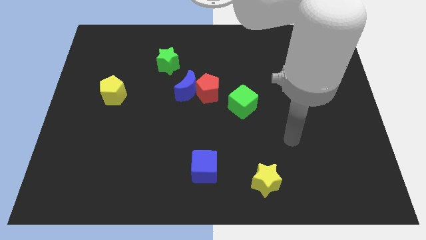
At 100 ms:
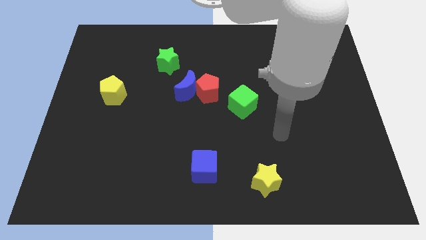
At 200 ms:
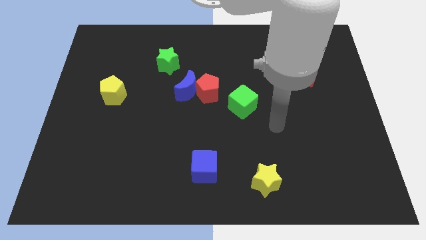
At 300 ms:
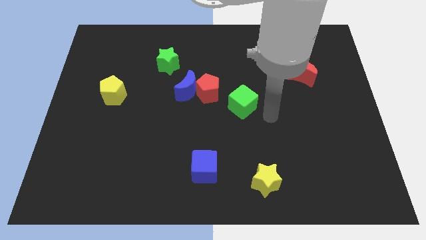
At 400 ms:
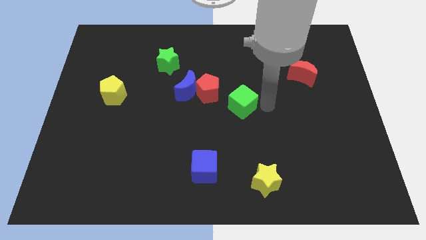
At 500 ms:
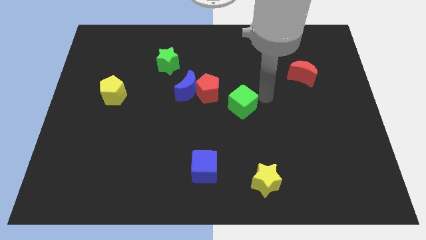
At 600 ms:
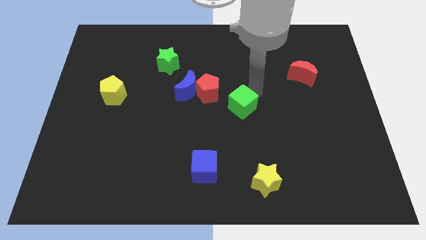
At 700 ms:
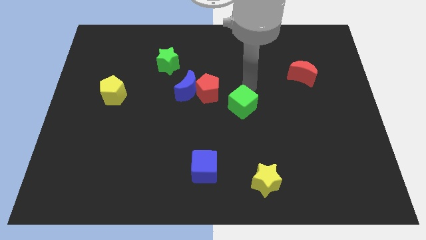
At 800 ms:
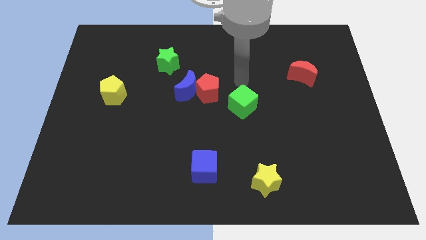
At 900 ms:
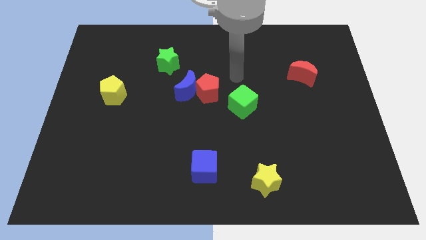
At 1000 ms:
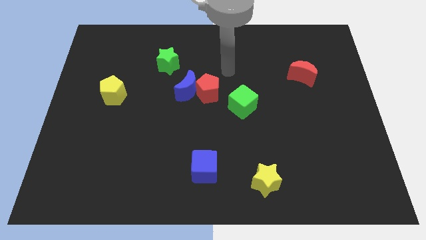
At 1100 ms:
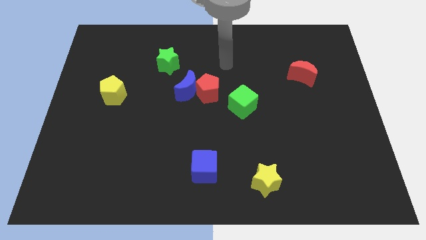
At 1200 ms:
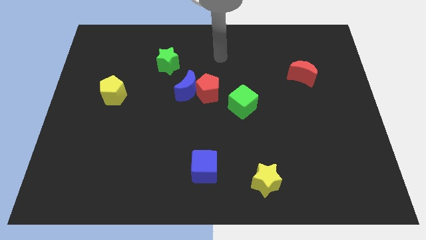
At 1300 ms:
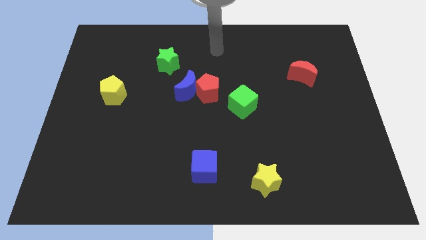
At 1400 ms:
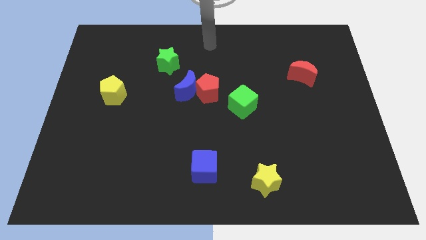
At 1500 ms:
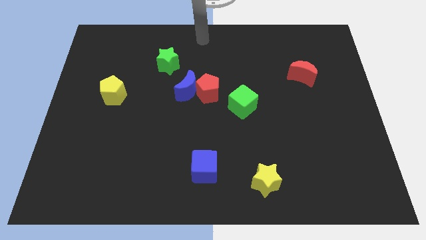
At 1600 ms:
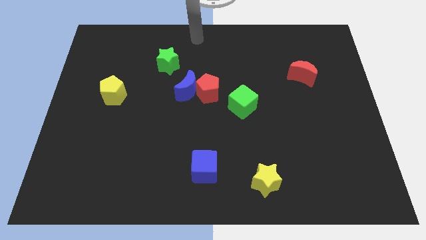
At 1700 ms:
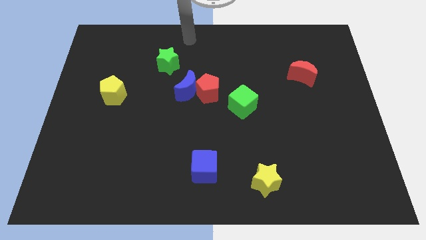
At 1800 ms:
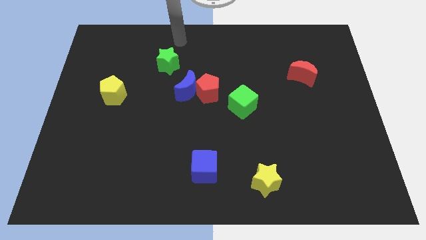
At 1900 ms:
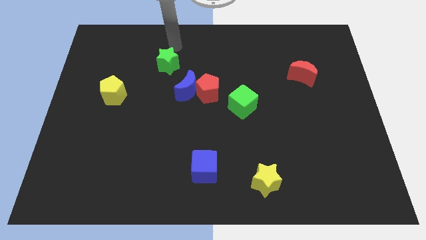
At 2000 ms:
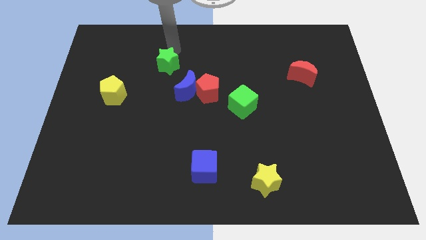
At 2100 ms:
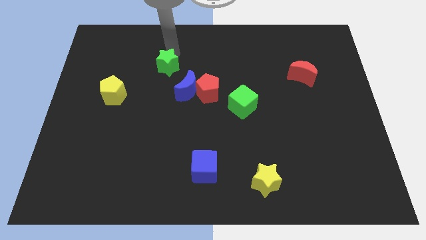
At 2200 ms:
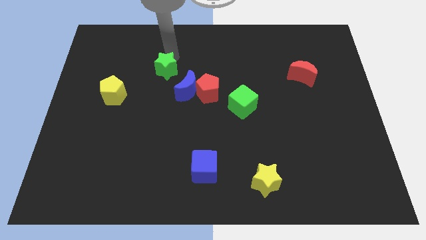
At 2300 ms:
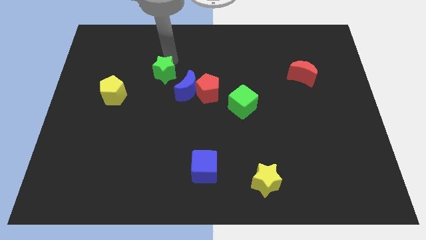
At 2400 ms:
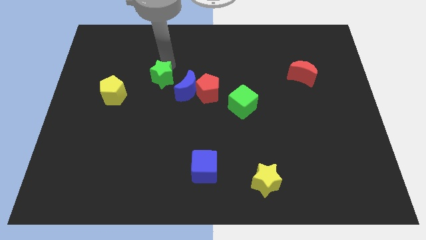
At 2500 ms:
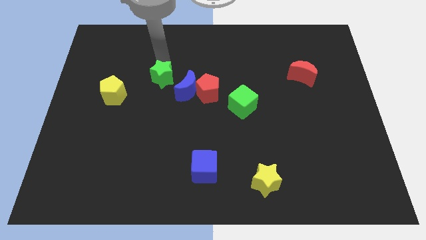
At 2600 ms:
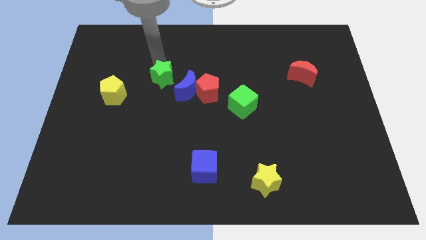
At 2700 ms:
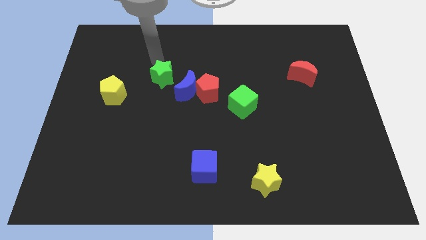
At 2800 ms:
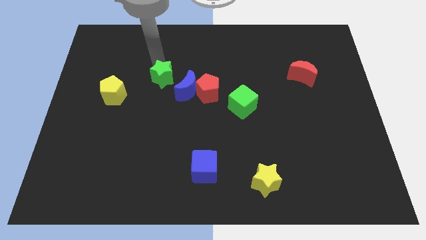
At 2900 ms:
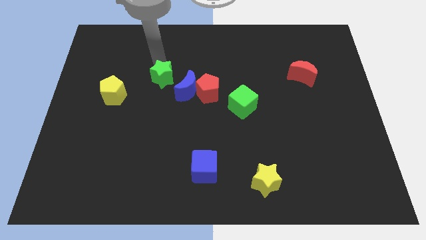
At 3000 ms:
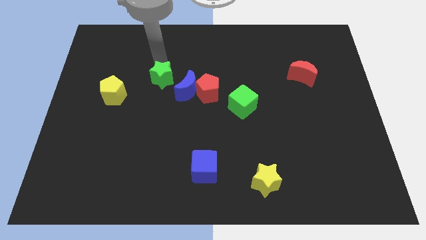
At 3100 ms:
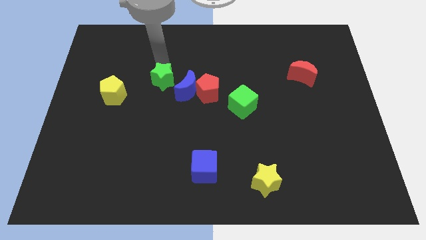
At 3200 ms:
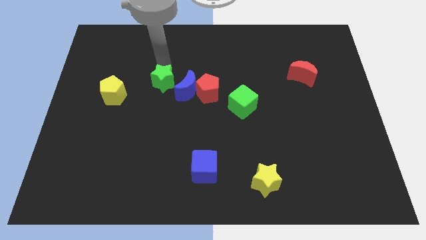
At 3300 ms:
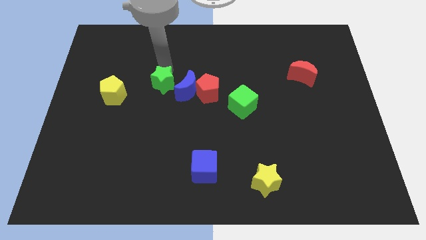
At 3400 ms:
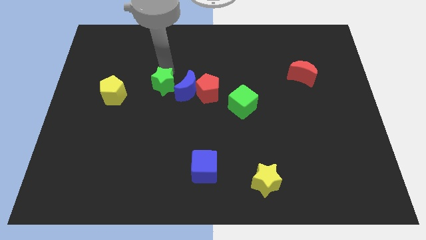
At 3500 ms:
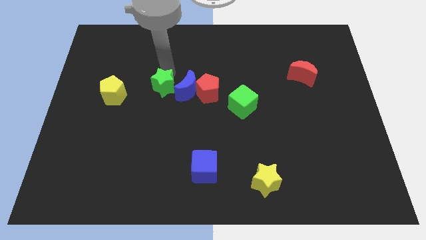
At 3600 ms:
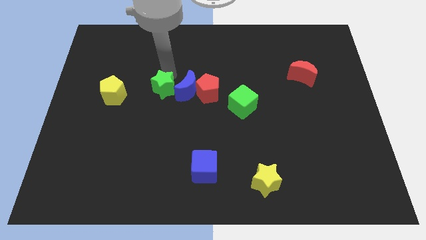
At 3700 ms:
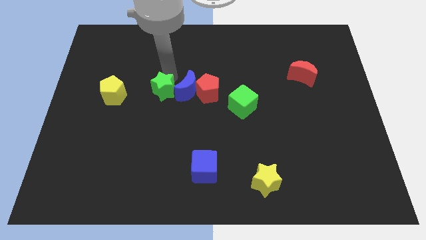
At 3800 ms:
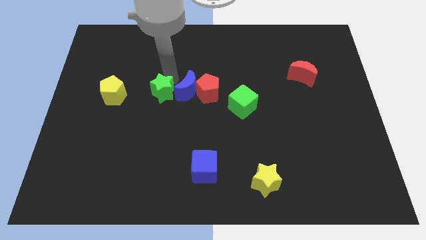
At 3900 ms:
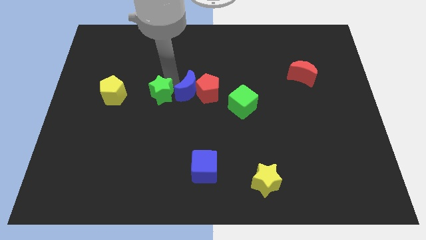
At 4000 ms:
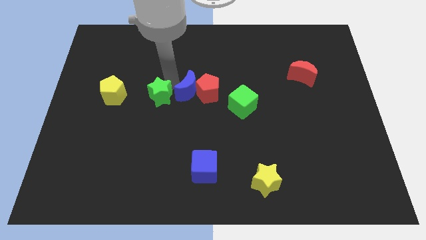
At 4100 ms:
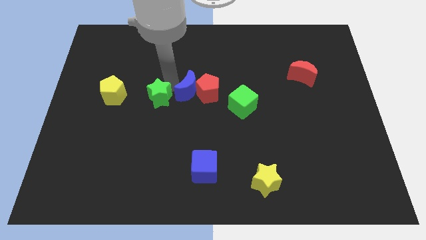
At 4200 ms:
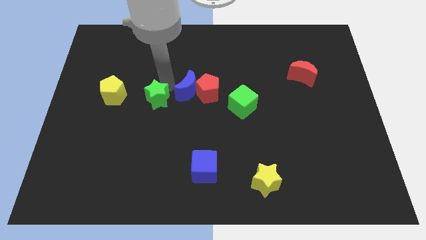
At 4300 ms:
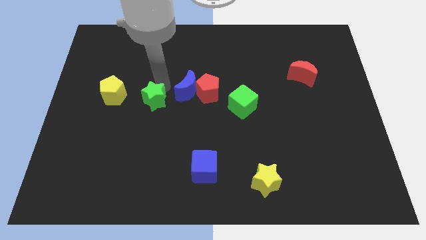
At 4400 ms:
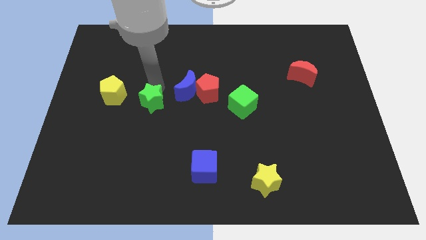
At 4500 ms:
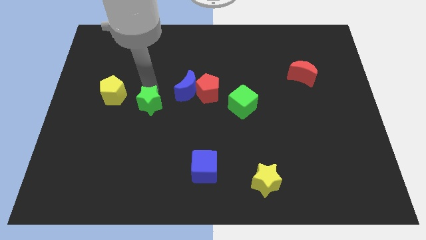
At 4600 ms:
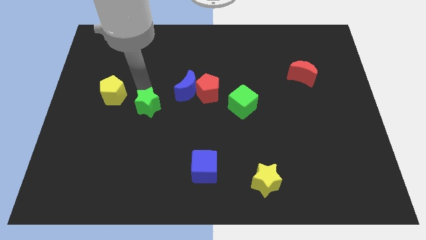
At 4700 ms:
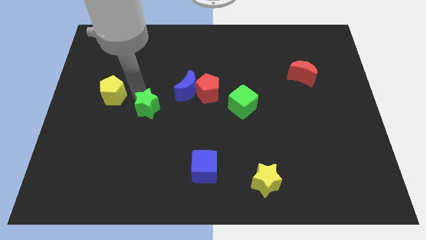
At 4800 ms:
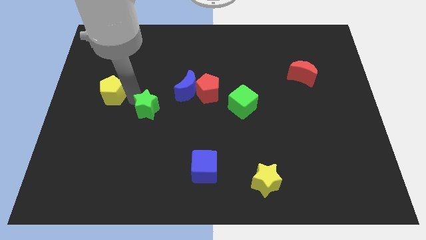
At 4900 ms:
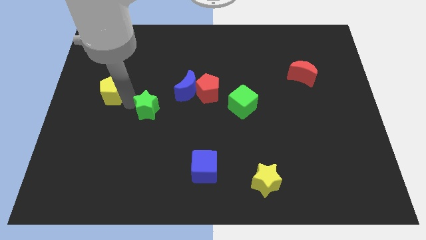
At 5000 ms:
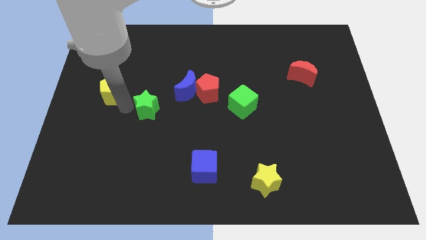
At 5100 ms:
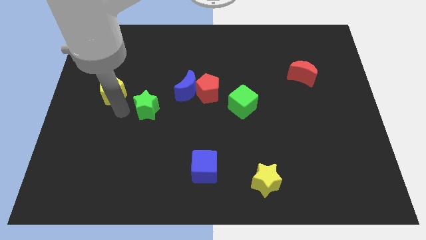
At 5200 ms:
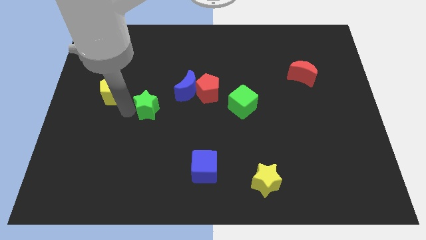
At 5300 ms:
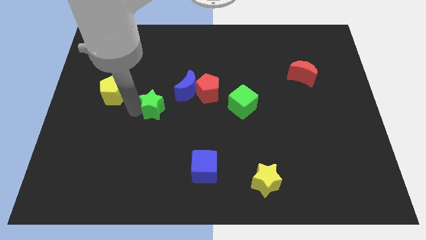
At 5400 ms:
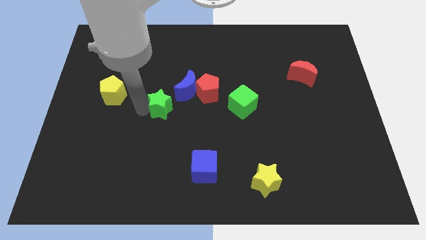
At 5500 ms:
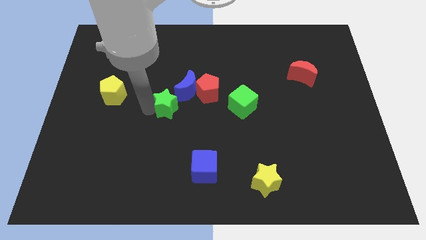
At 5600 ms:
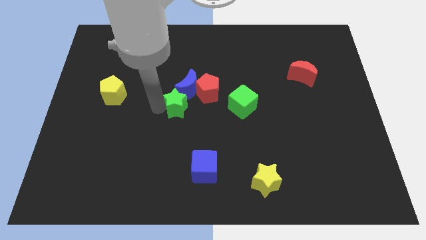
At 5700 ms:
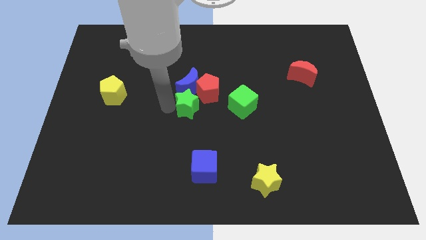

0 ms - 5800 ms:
slide the green star to the bottom right of the blue moon

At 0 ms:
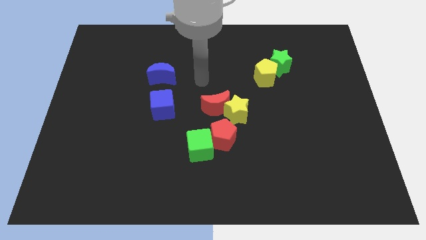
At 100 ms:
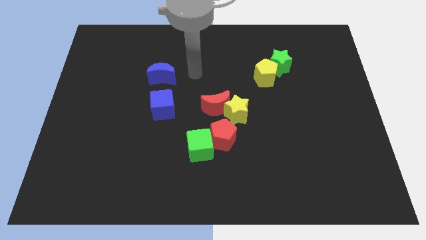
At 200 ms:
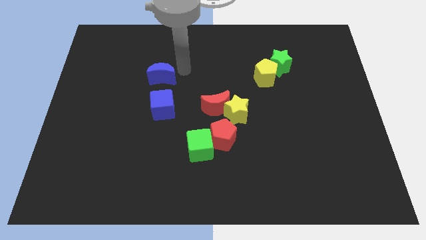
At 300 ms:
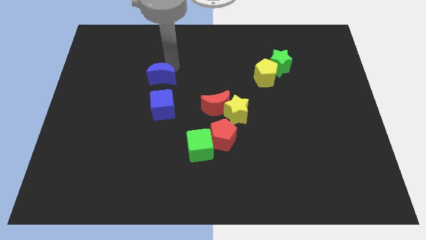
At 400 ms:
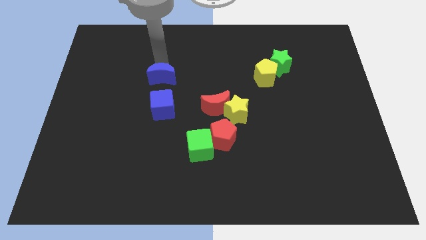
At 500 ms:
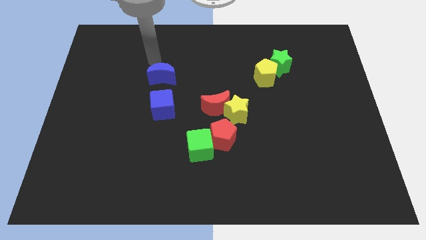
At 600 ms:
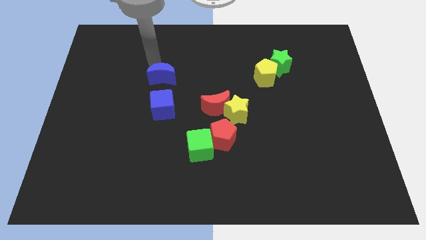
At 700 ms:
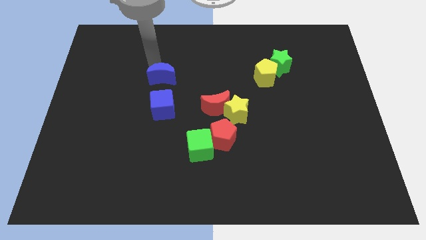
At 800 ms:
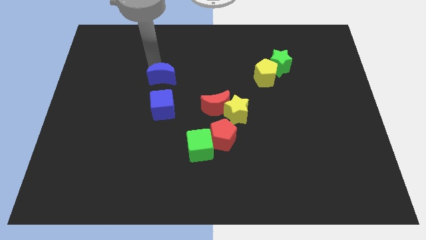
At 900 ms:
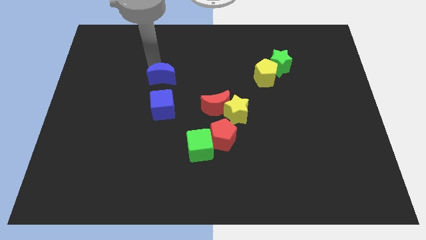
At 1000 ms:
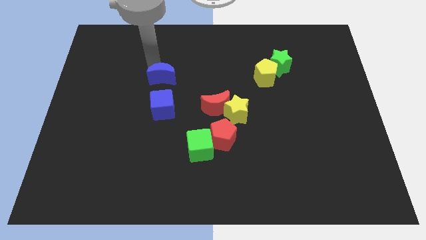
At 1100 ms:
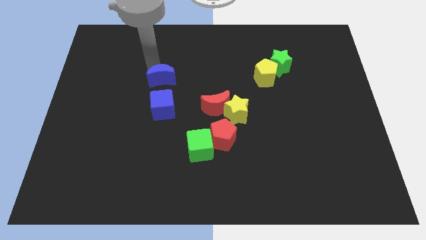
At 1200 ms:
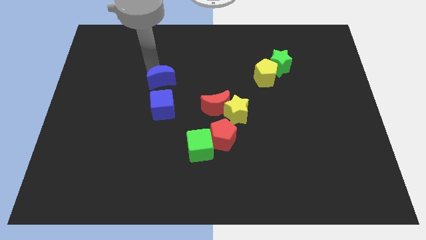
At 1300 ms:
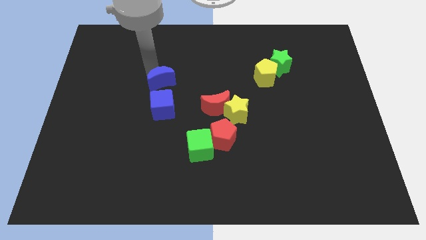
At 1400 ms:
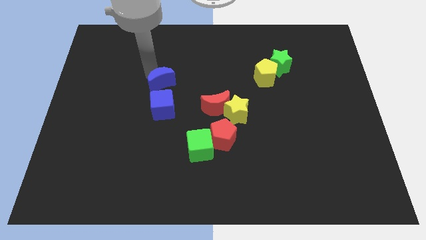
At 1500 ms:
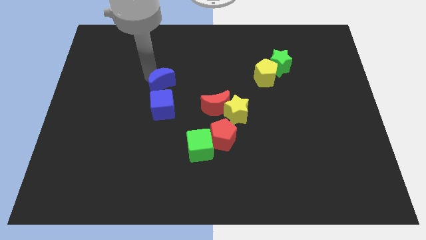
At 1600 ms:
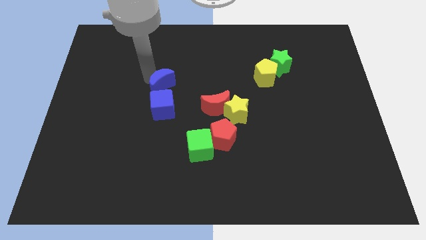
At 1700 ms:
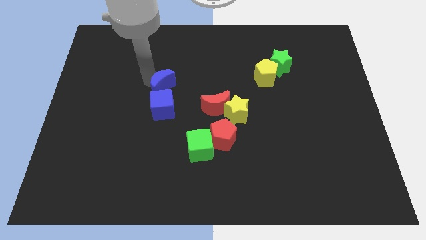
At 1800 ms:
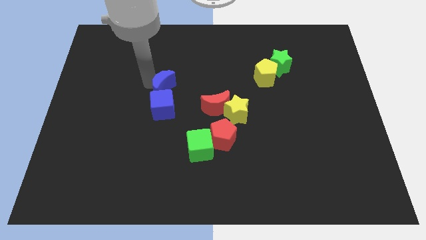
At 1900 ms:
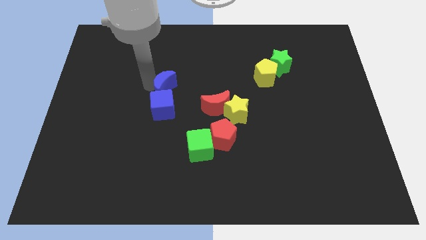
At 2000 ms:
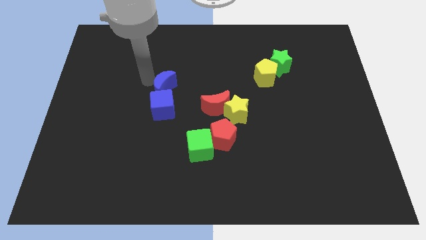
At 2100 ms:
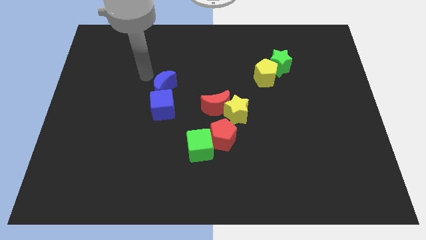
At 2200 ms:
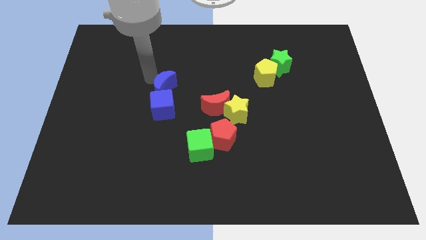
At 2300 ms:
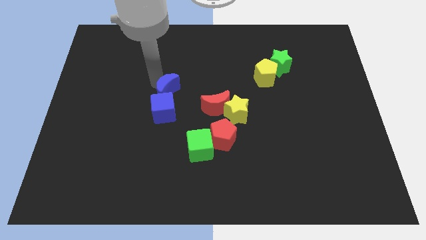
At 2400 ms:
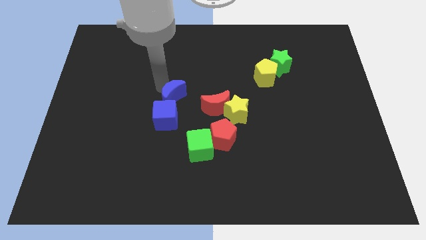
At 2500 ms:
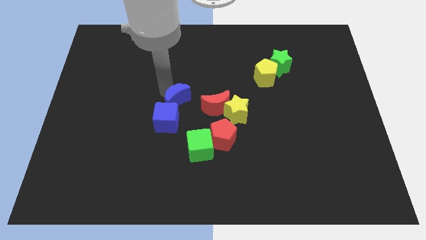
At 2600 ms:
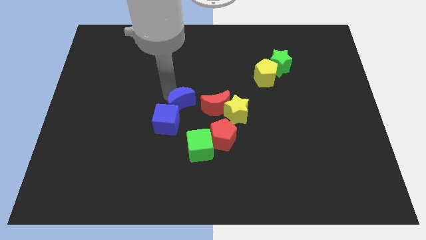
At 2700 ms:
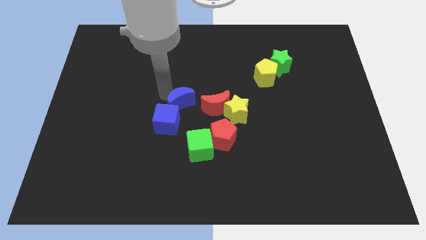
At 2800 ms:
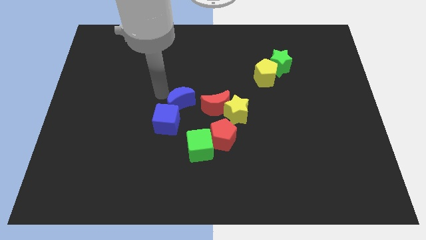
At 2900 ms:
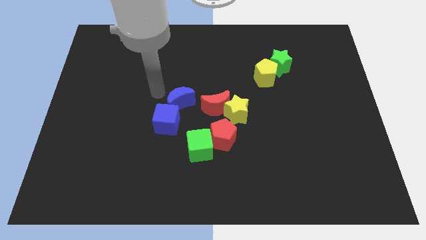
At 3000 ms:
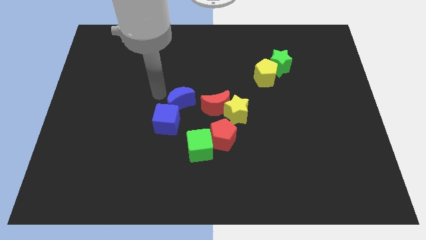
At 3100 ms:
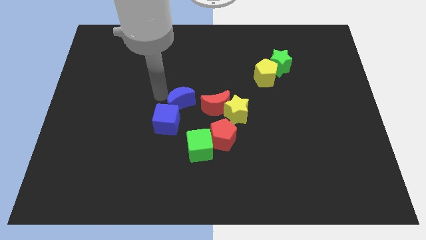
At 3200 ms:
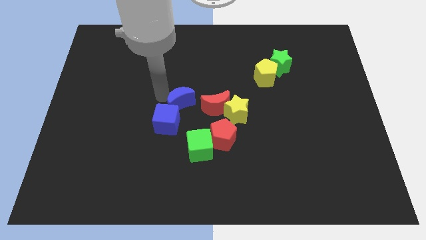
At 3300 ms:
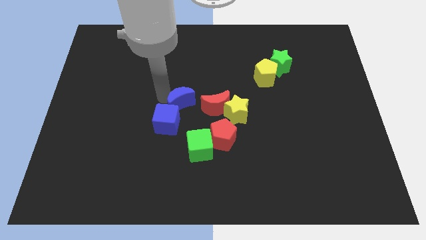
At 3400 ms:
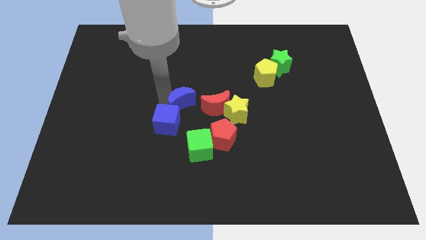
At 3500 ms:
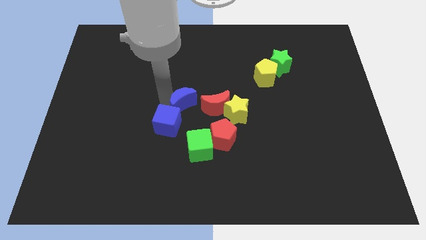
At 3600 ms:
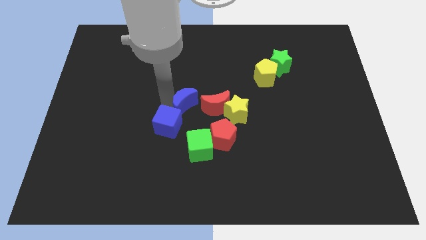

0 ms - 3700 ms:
slide the blue moon to the top left of the red pentagon
